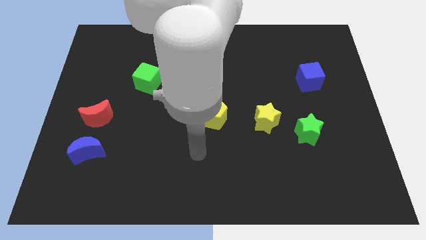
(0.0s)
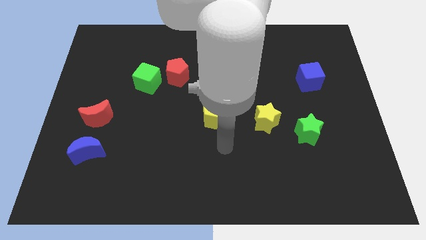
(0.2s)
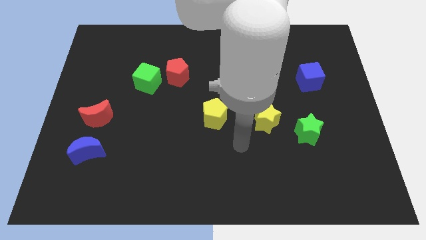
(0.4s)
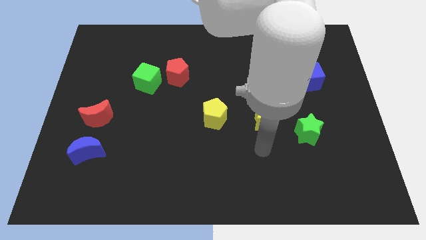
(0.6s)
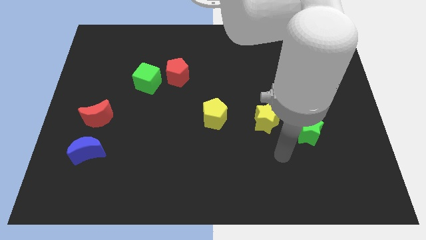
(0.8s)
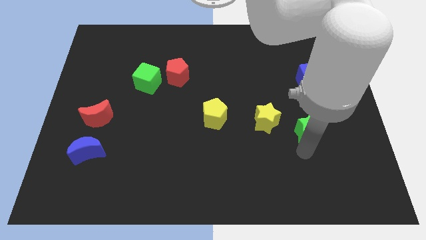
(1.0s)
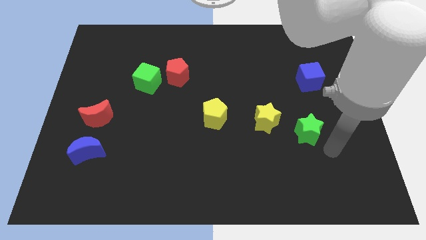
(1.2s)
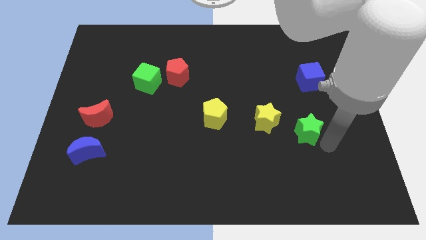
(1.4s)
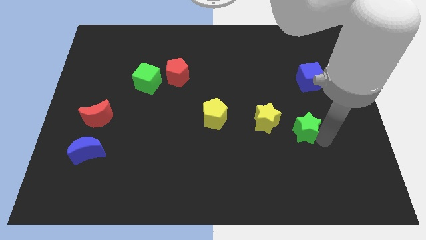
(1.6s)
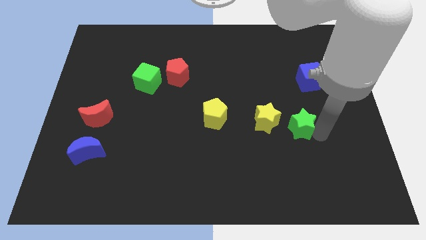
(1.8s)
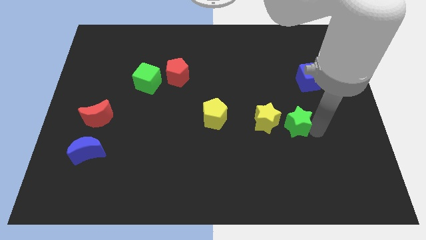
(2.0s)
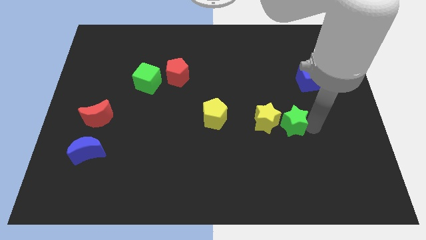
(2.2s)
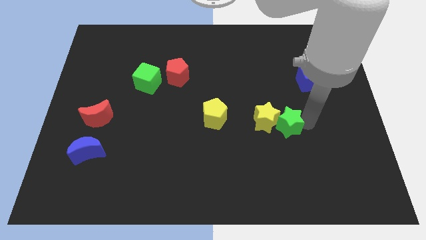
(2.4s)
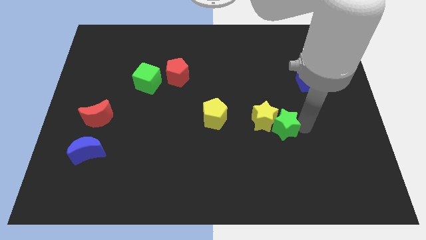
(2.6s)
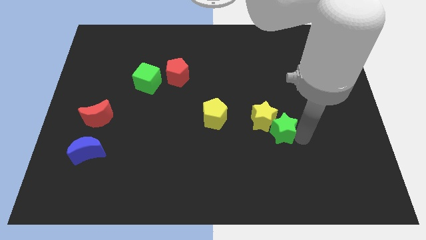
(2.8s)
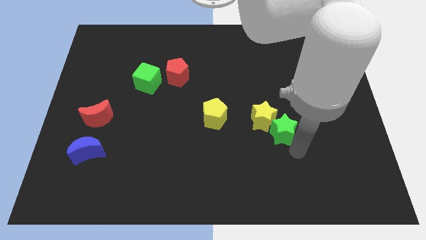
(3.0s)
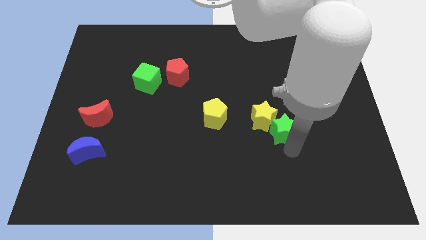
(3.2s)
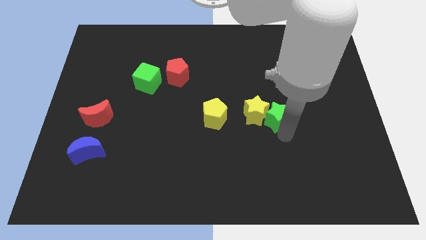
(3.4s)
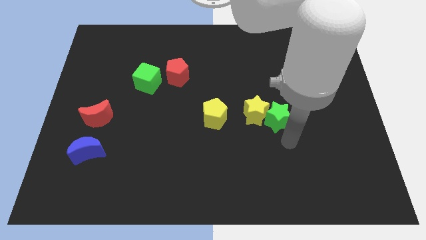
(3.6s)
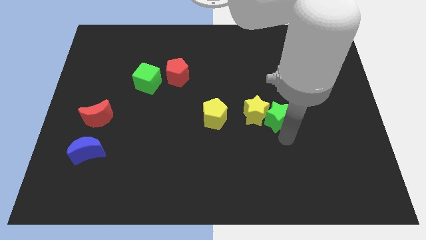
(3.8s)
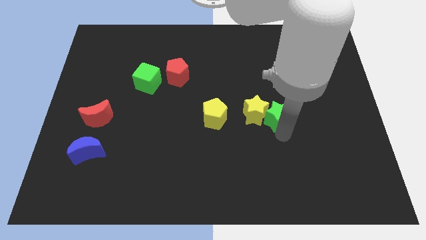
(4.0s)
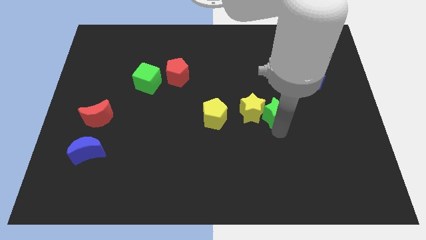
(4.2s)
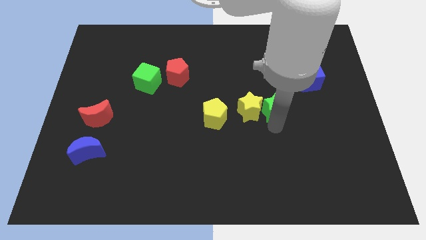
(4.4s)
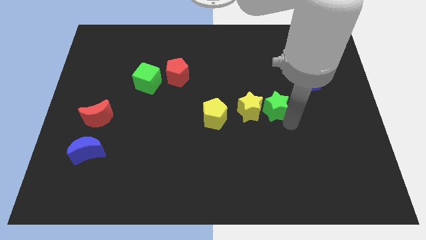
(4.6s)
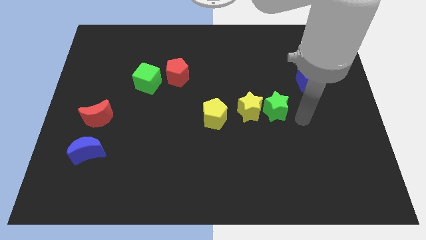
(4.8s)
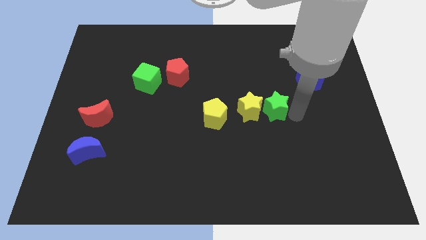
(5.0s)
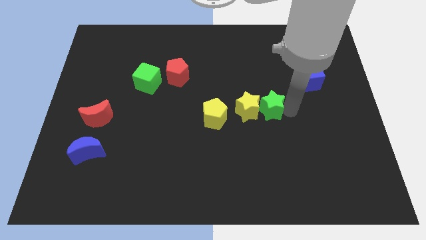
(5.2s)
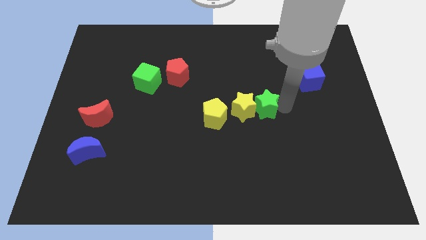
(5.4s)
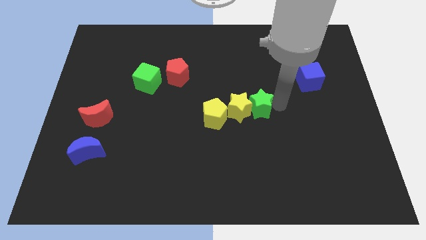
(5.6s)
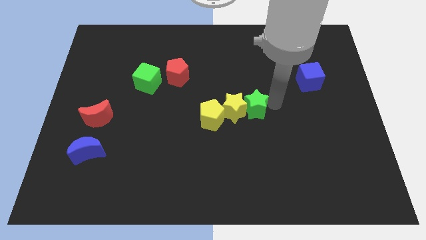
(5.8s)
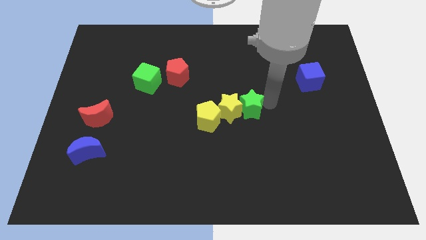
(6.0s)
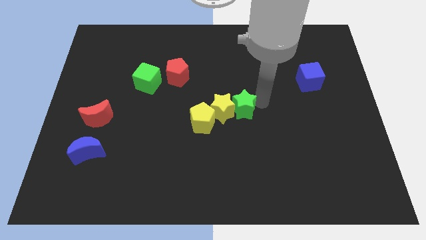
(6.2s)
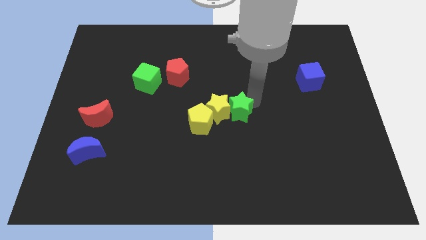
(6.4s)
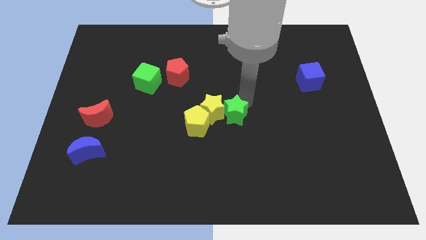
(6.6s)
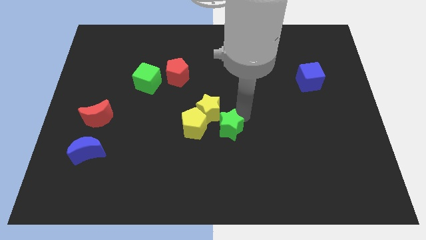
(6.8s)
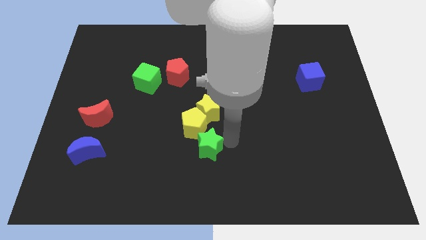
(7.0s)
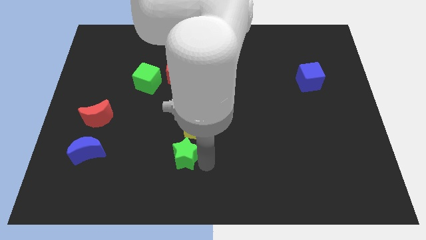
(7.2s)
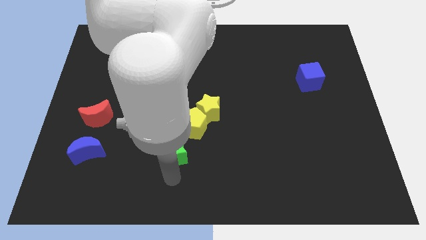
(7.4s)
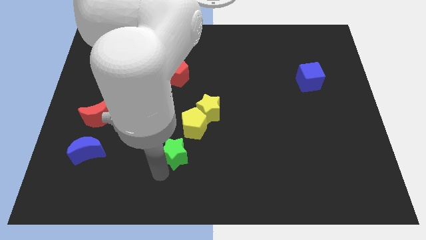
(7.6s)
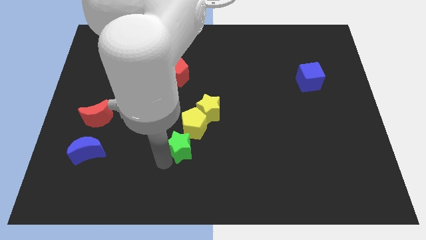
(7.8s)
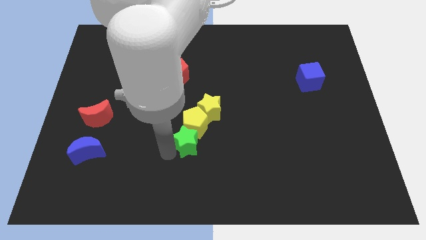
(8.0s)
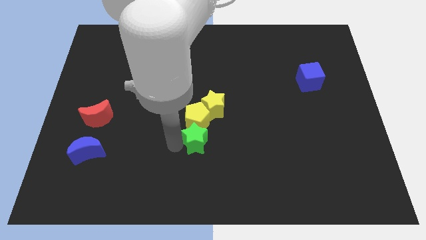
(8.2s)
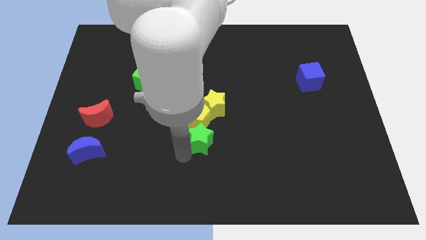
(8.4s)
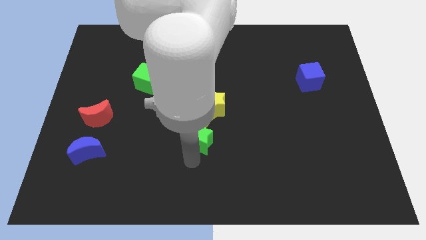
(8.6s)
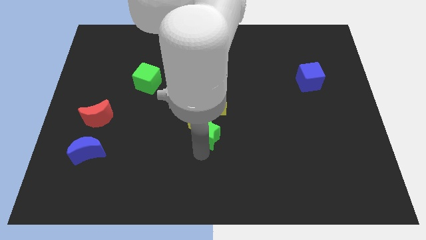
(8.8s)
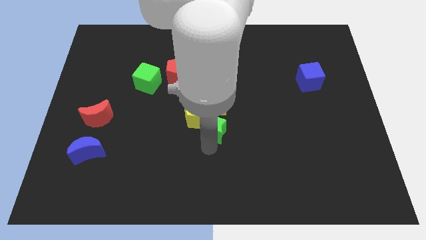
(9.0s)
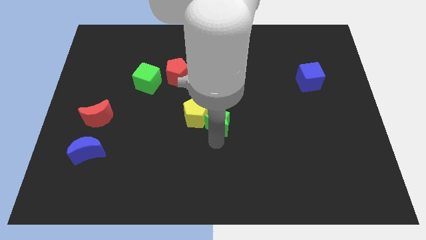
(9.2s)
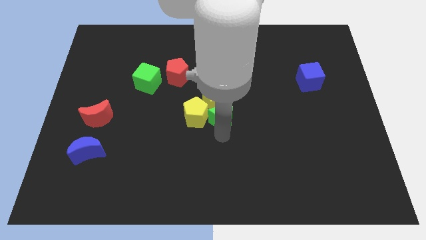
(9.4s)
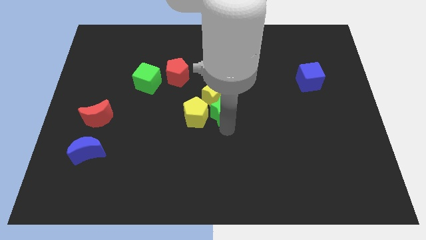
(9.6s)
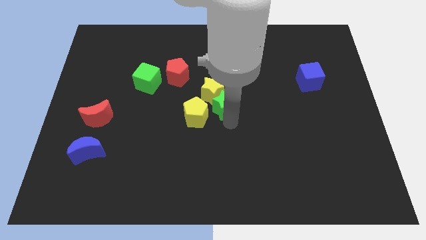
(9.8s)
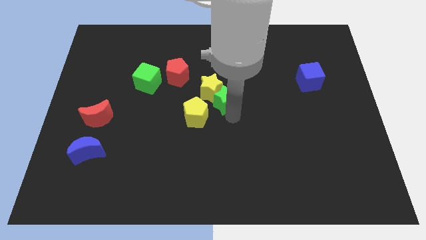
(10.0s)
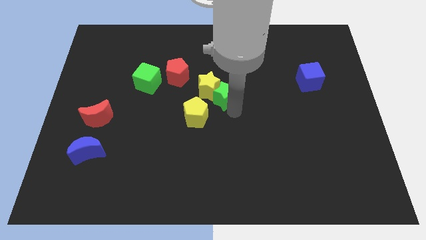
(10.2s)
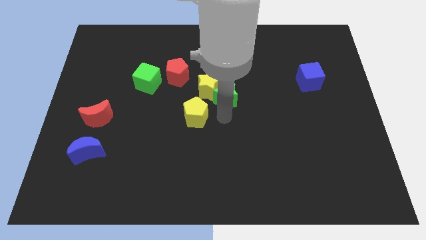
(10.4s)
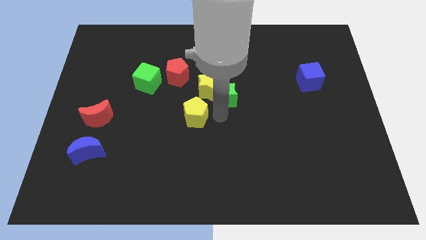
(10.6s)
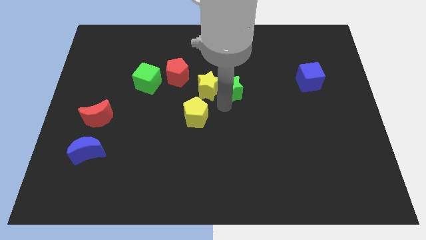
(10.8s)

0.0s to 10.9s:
slide the green star upwards and then left

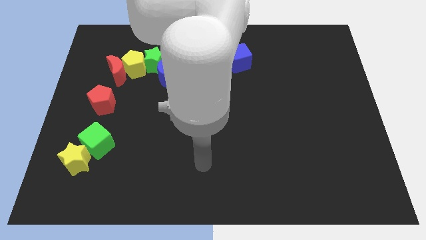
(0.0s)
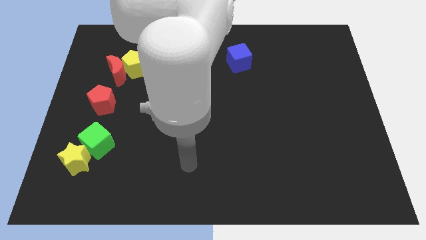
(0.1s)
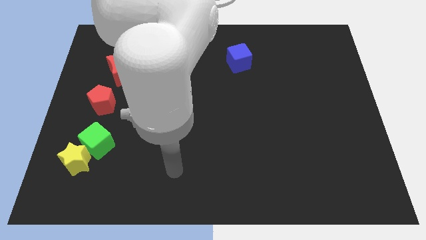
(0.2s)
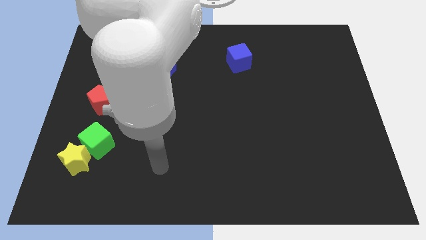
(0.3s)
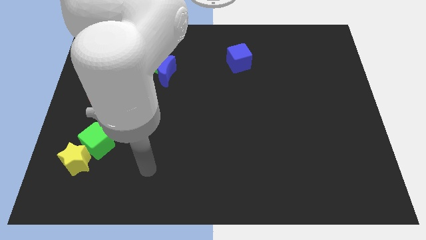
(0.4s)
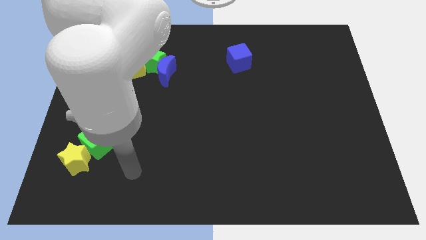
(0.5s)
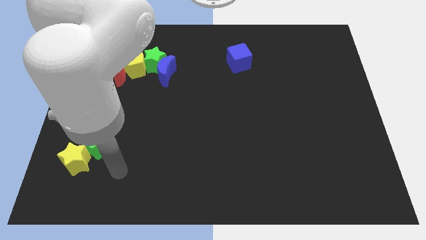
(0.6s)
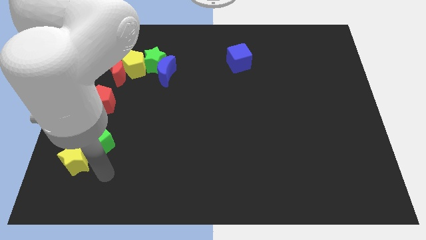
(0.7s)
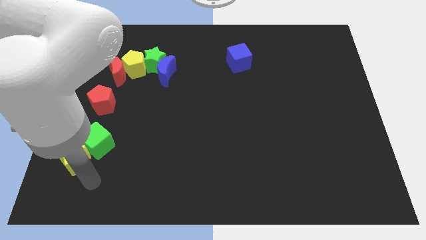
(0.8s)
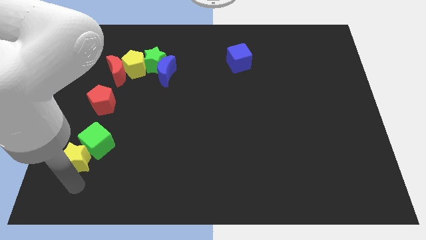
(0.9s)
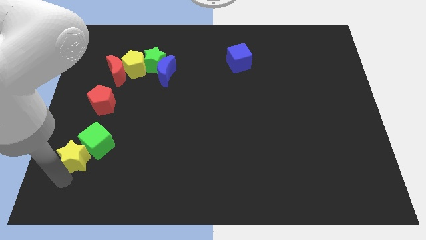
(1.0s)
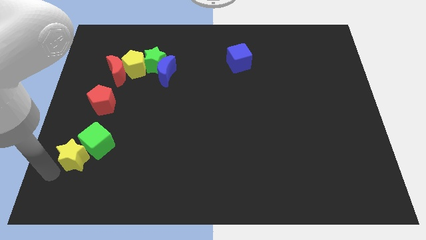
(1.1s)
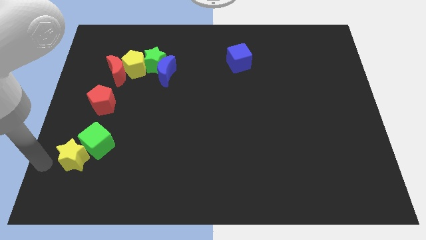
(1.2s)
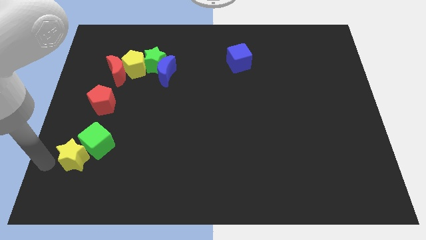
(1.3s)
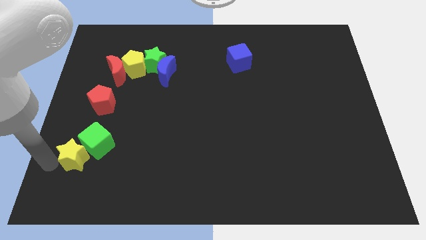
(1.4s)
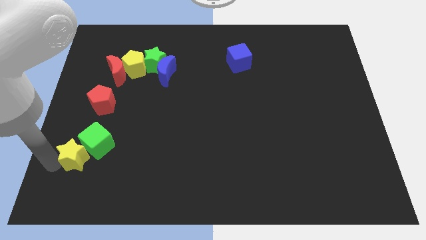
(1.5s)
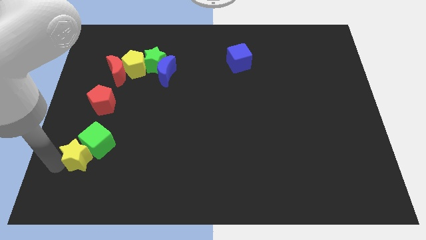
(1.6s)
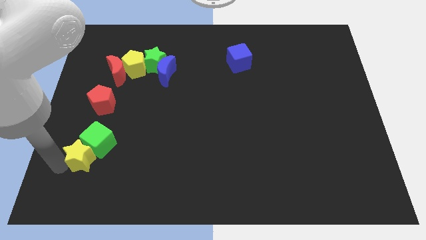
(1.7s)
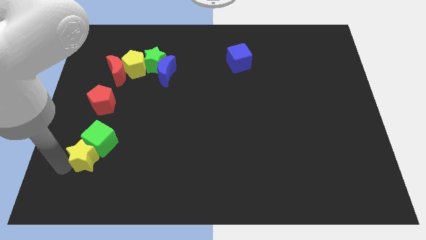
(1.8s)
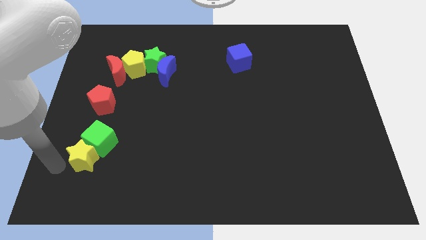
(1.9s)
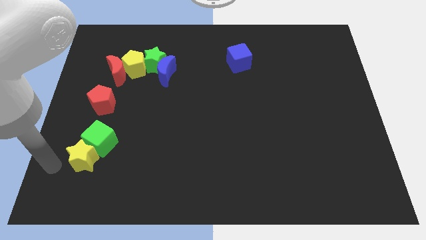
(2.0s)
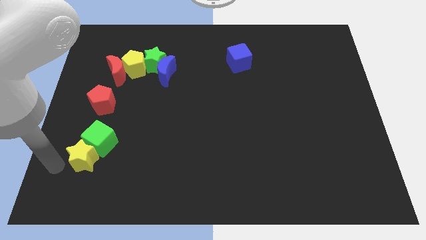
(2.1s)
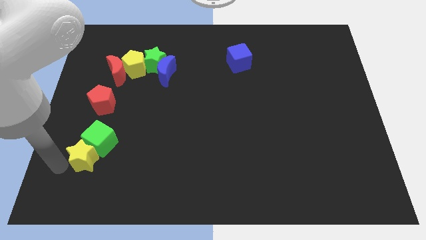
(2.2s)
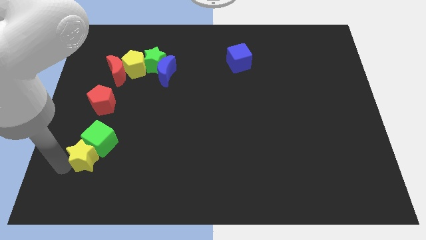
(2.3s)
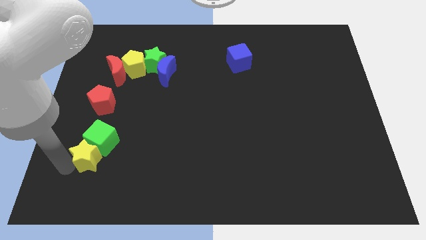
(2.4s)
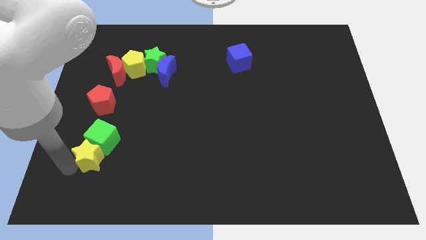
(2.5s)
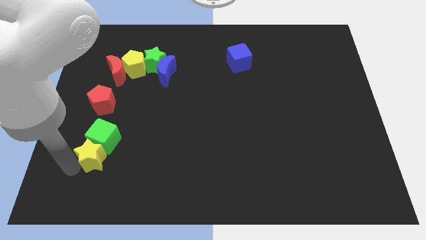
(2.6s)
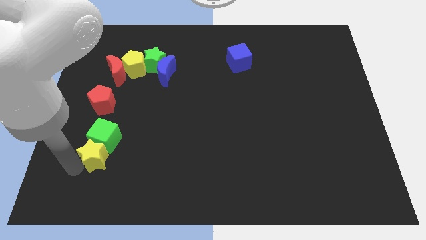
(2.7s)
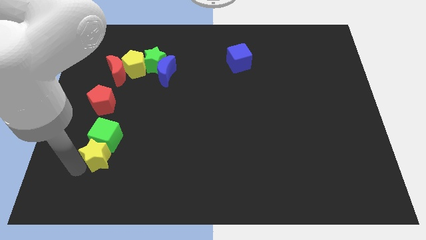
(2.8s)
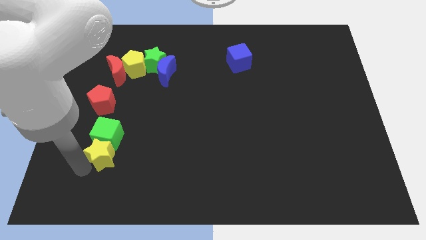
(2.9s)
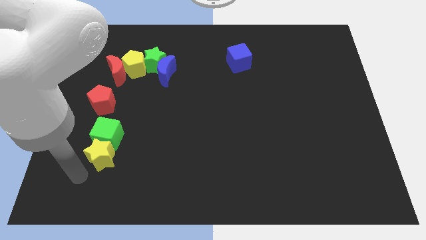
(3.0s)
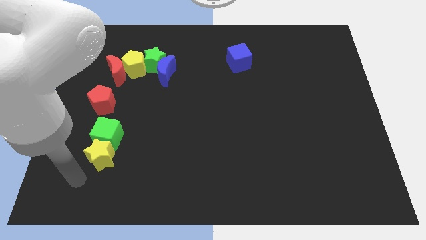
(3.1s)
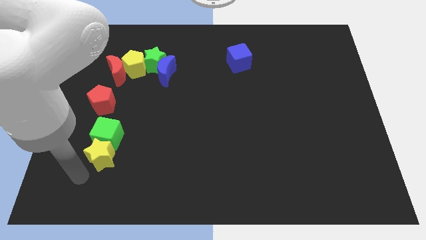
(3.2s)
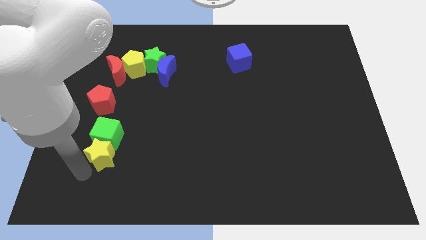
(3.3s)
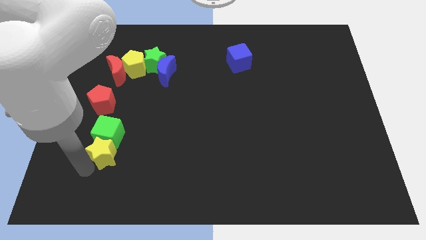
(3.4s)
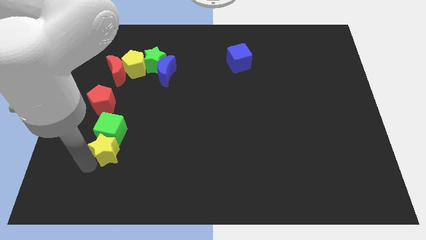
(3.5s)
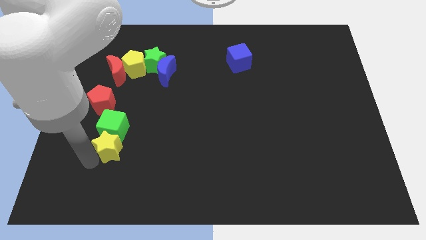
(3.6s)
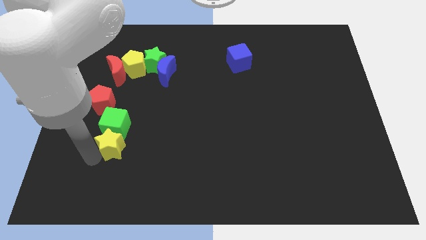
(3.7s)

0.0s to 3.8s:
move the yellow star a little diagonally upwards and right
